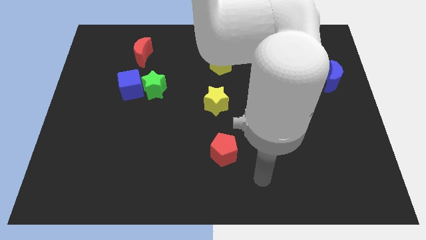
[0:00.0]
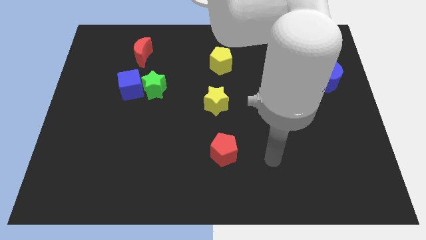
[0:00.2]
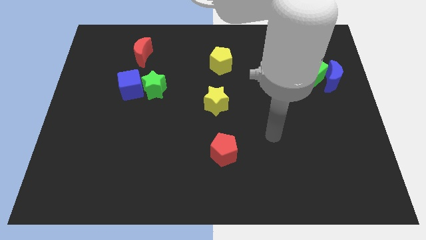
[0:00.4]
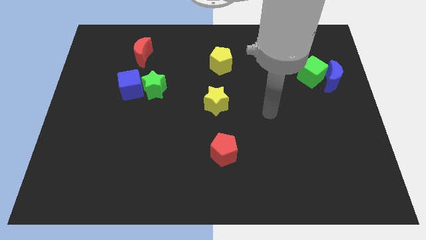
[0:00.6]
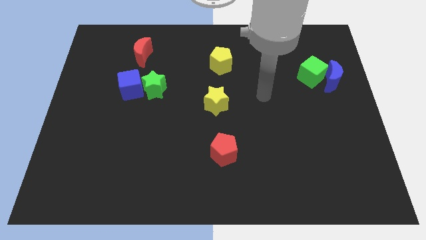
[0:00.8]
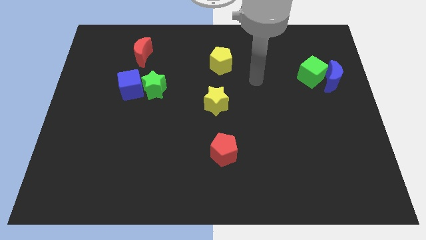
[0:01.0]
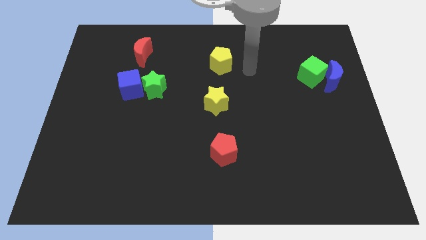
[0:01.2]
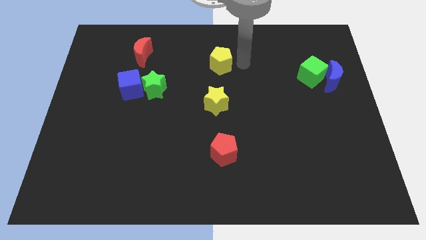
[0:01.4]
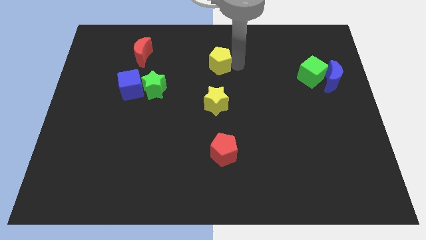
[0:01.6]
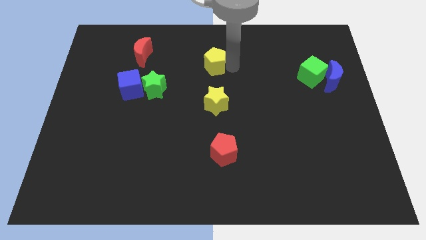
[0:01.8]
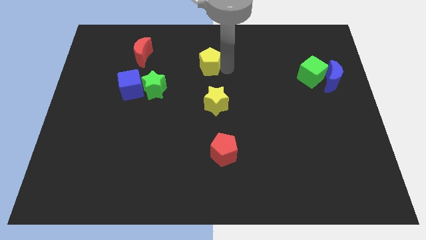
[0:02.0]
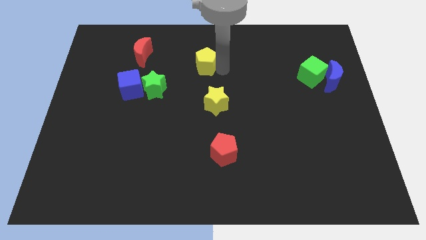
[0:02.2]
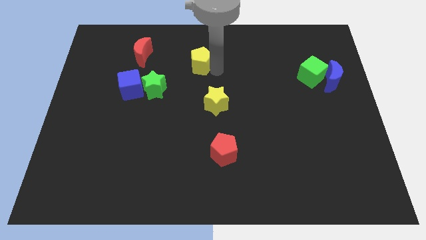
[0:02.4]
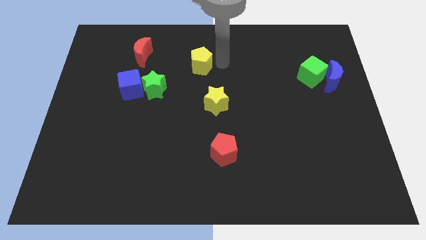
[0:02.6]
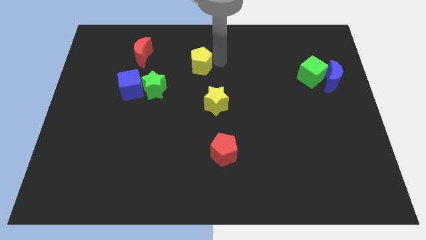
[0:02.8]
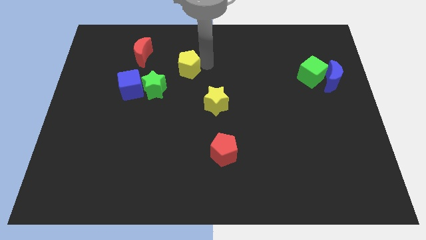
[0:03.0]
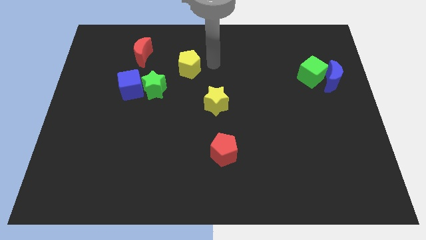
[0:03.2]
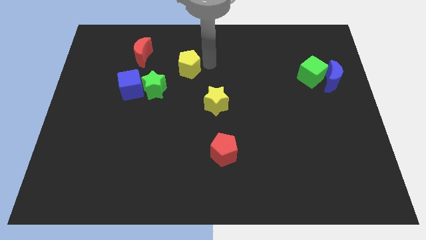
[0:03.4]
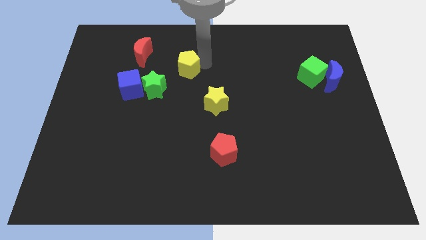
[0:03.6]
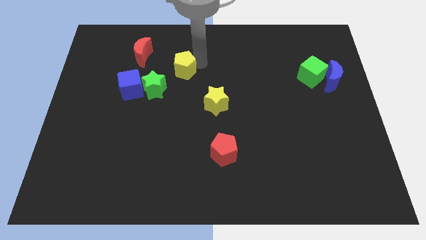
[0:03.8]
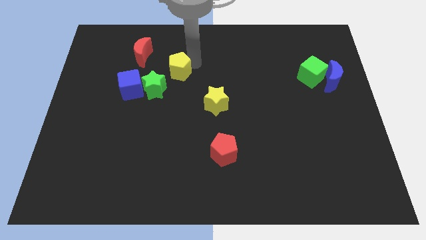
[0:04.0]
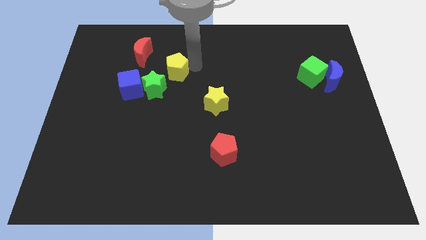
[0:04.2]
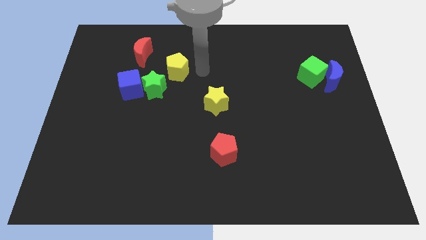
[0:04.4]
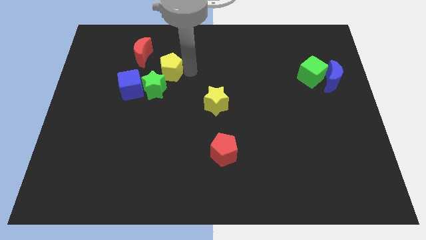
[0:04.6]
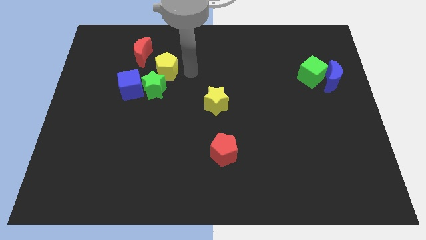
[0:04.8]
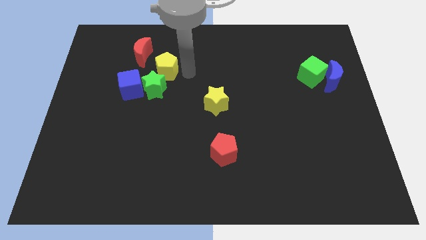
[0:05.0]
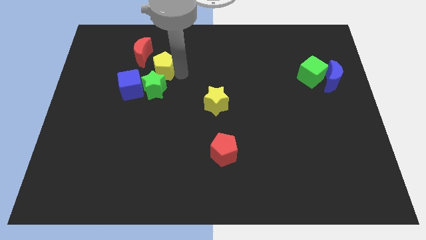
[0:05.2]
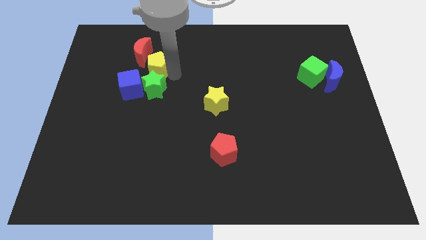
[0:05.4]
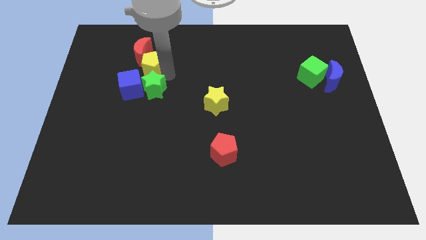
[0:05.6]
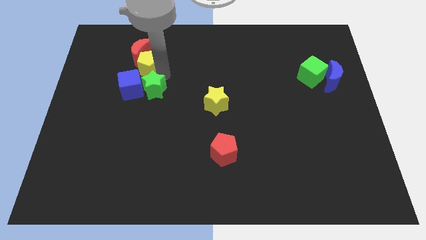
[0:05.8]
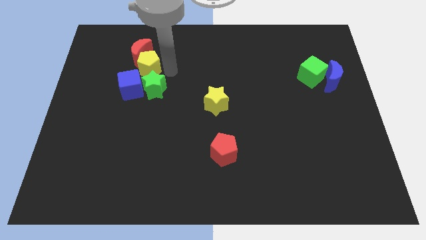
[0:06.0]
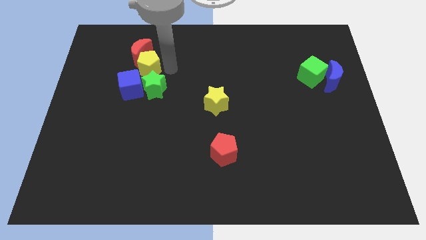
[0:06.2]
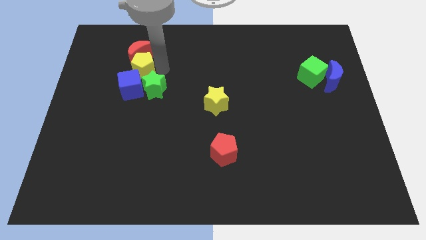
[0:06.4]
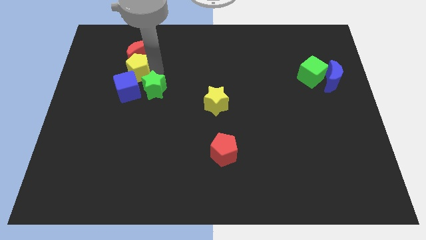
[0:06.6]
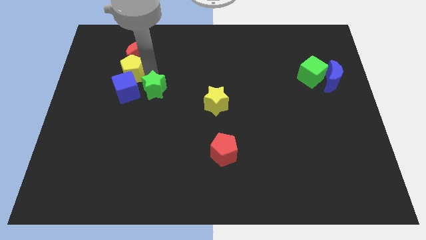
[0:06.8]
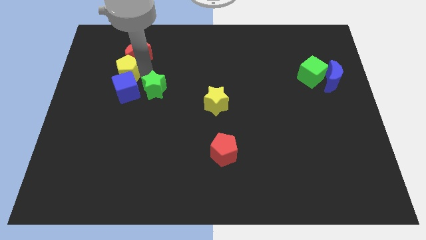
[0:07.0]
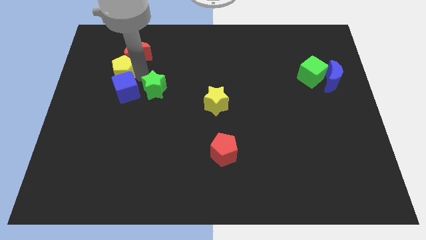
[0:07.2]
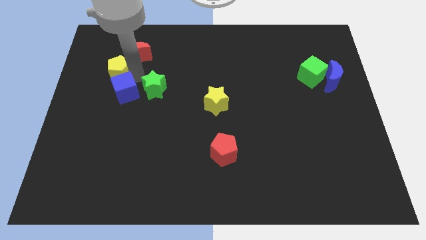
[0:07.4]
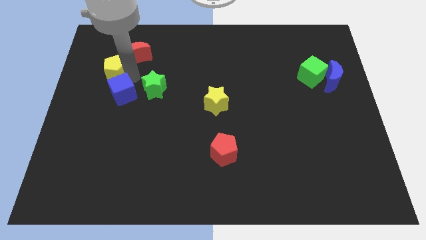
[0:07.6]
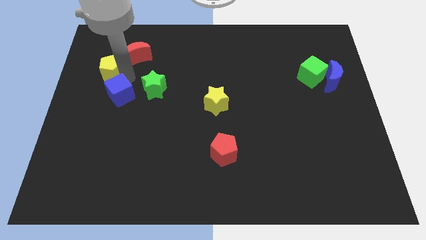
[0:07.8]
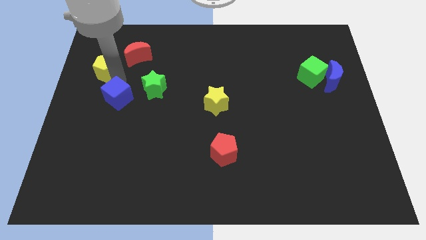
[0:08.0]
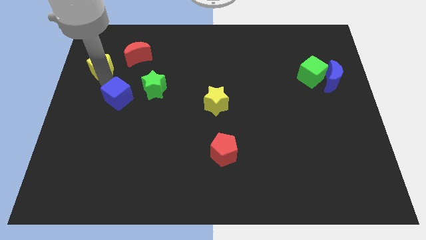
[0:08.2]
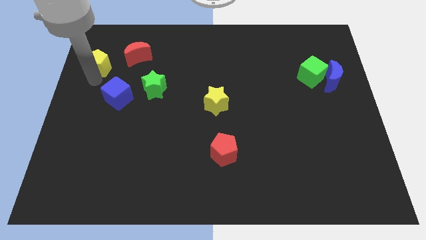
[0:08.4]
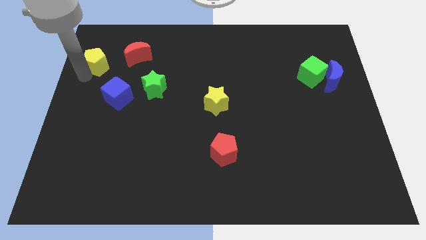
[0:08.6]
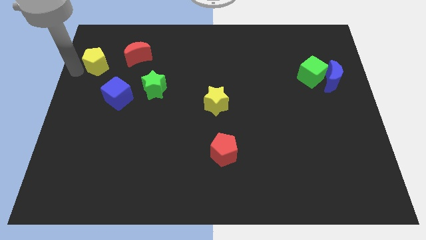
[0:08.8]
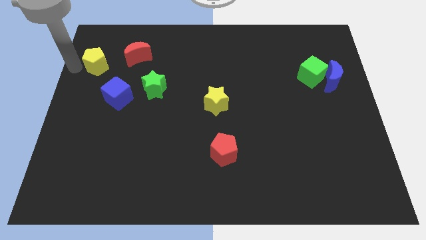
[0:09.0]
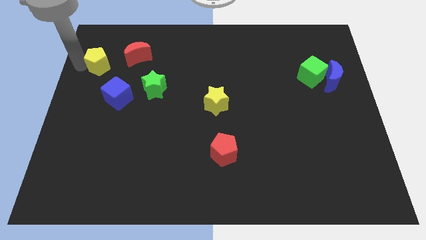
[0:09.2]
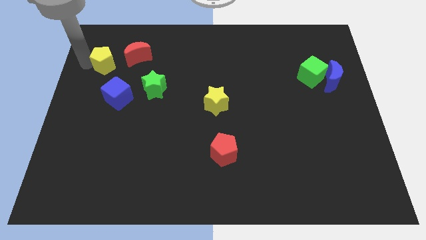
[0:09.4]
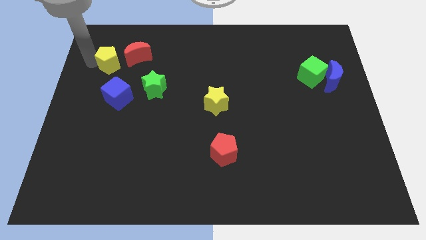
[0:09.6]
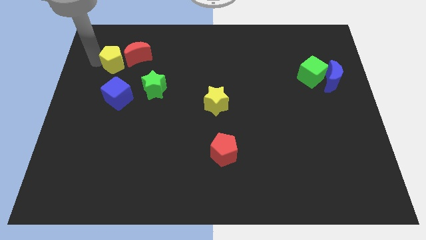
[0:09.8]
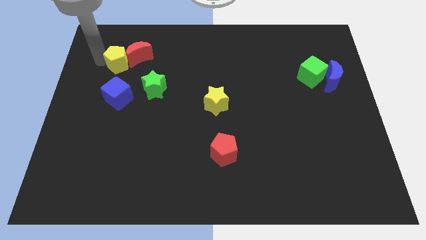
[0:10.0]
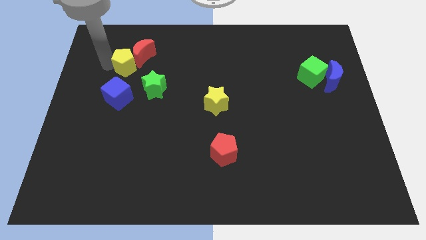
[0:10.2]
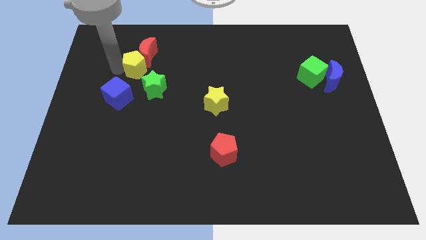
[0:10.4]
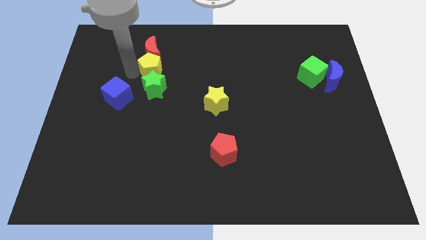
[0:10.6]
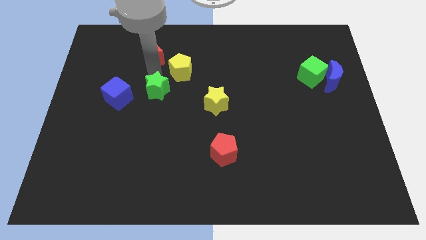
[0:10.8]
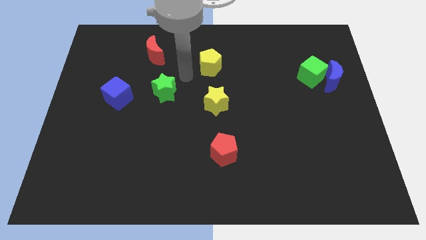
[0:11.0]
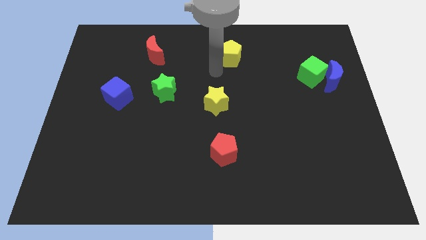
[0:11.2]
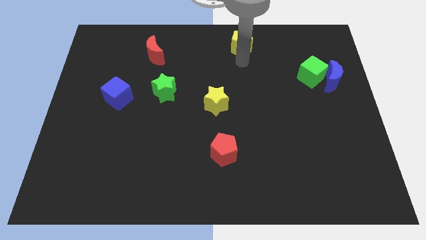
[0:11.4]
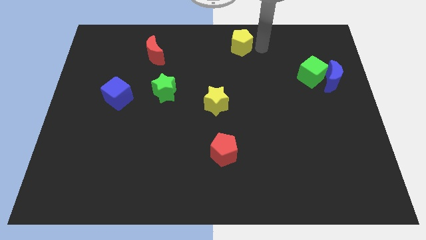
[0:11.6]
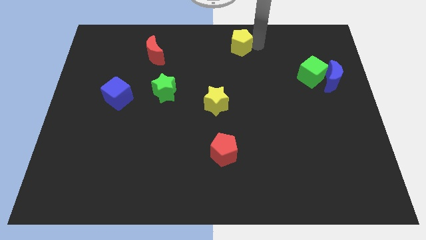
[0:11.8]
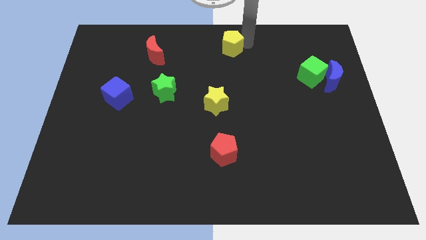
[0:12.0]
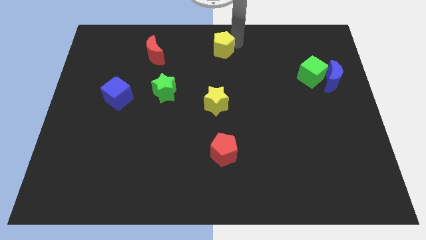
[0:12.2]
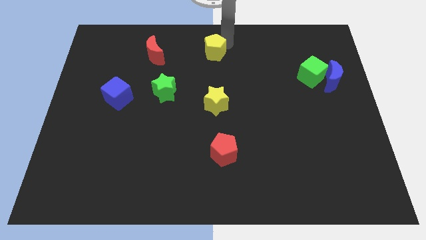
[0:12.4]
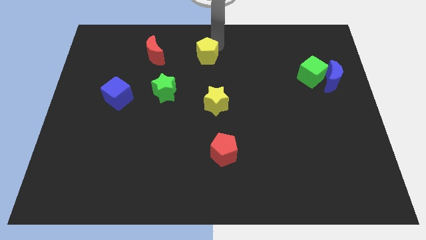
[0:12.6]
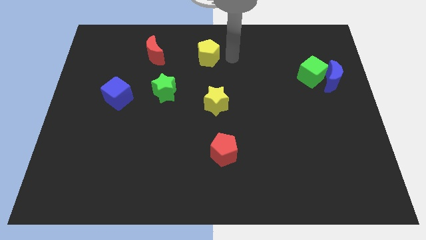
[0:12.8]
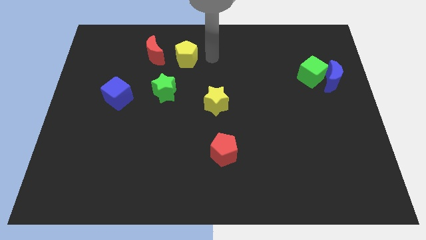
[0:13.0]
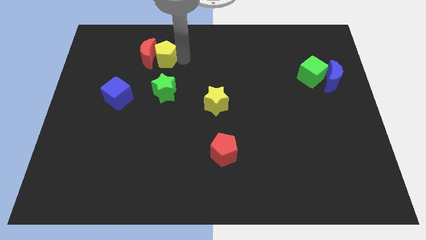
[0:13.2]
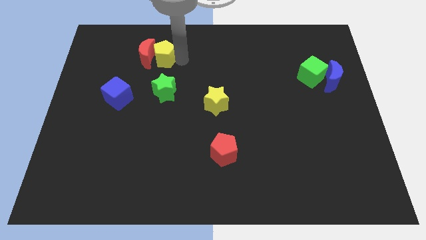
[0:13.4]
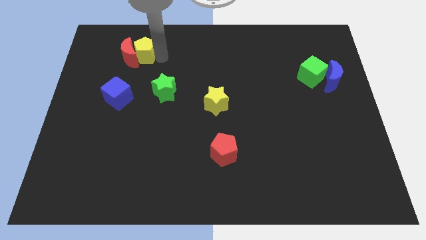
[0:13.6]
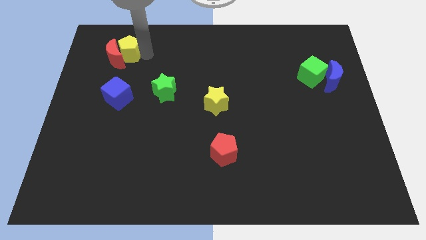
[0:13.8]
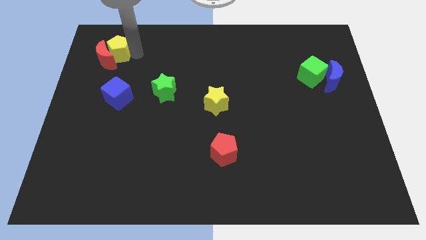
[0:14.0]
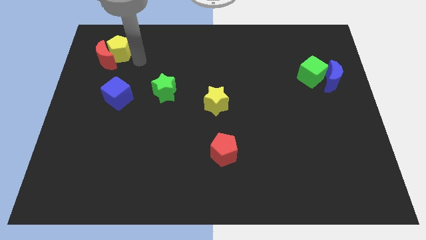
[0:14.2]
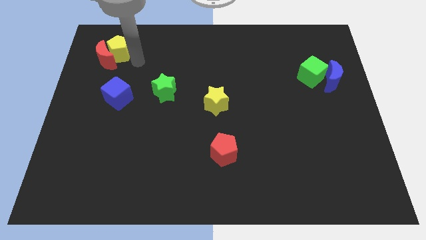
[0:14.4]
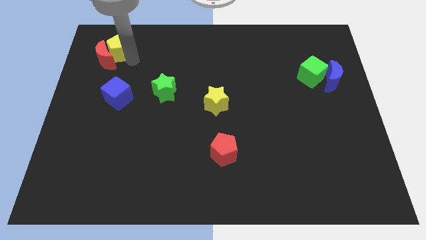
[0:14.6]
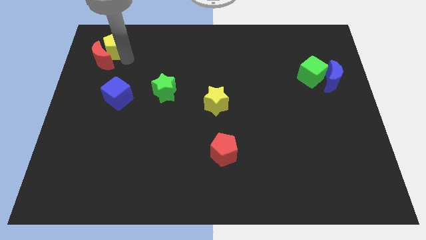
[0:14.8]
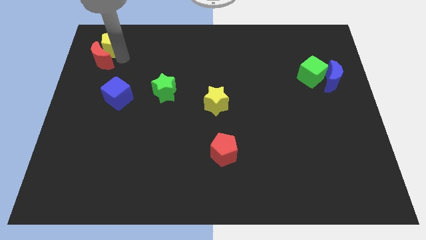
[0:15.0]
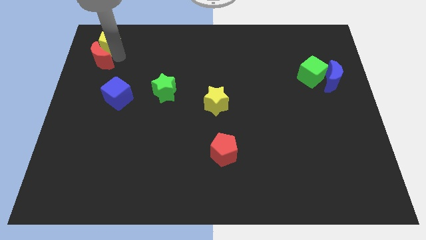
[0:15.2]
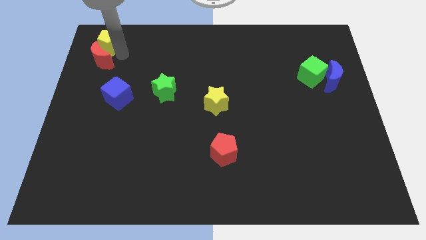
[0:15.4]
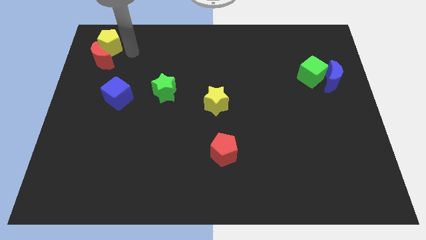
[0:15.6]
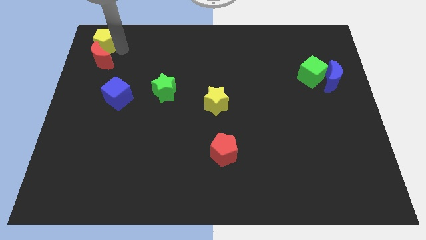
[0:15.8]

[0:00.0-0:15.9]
slide the yellow pentagon to the top left corner
